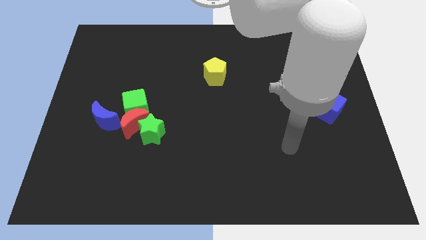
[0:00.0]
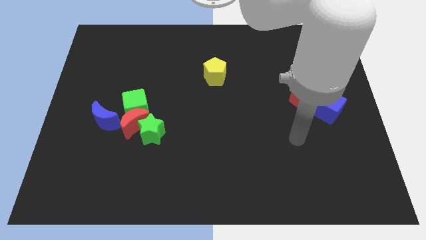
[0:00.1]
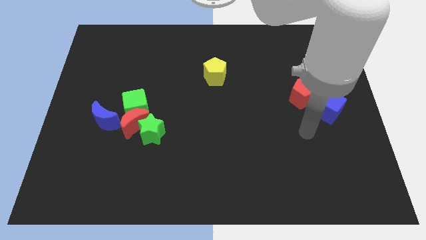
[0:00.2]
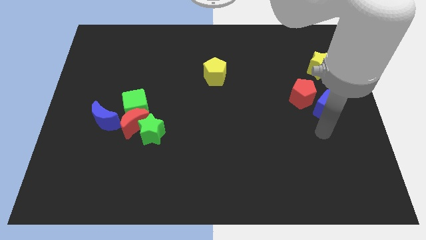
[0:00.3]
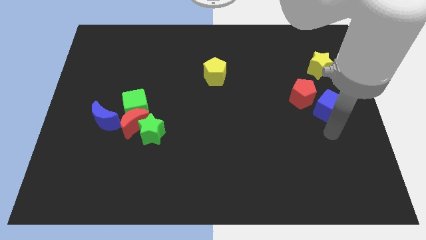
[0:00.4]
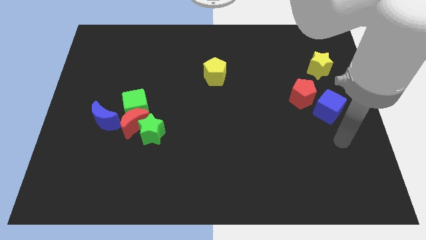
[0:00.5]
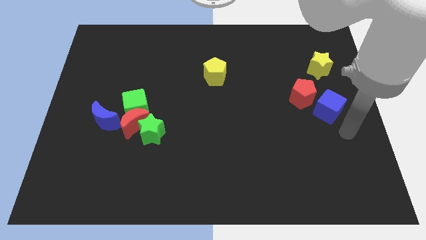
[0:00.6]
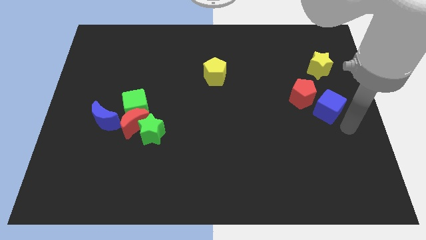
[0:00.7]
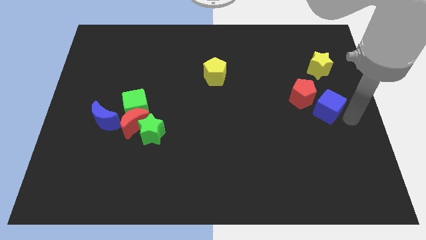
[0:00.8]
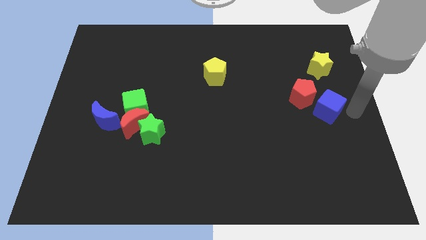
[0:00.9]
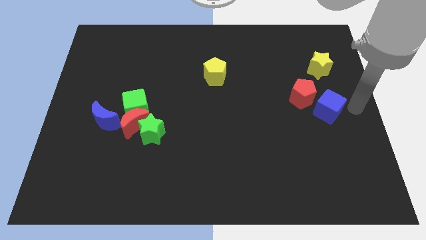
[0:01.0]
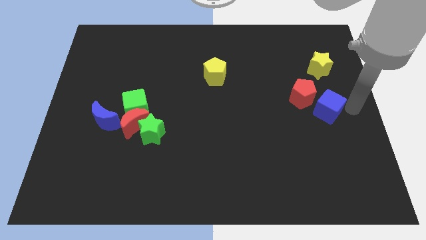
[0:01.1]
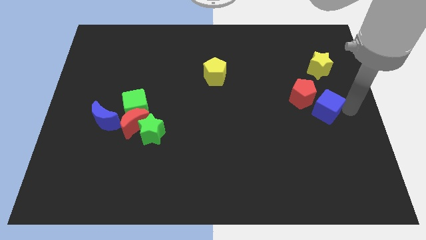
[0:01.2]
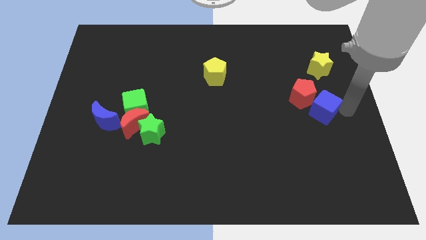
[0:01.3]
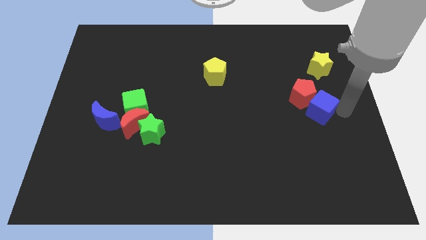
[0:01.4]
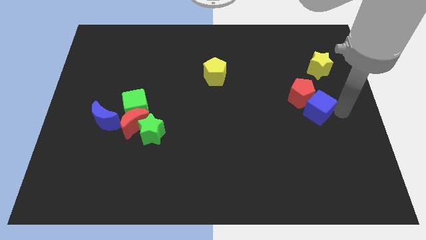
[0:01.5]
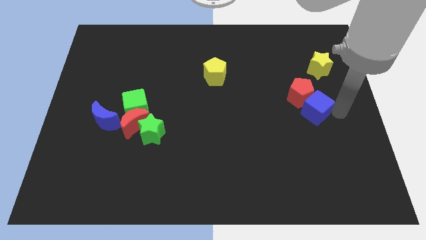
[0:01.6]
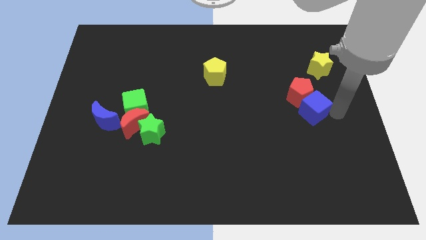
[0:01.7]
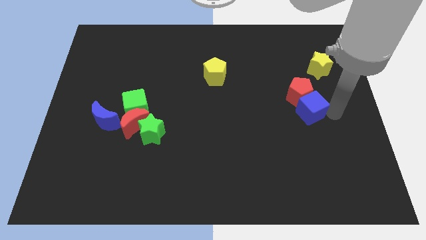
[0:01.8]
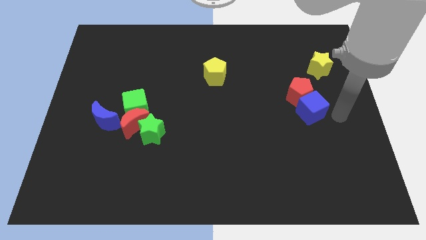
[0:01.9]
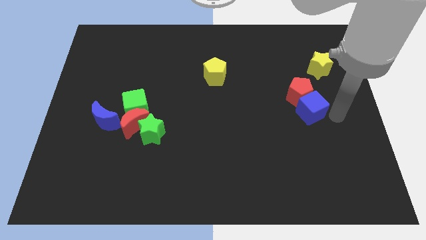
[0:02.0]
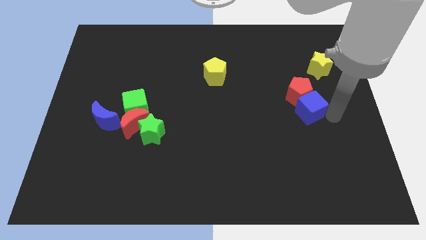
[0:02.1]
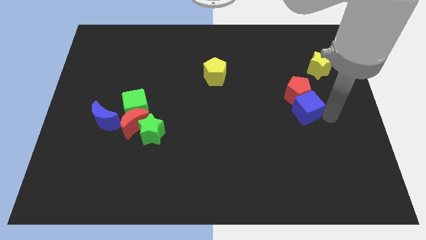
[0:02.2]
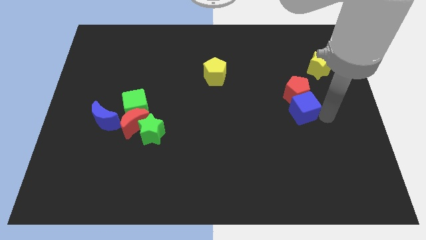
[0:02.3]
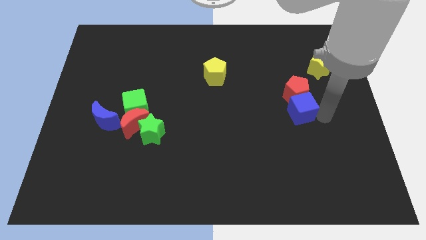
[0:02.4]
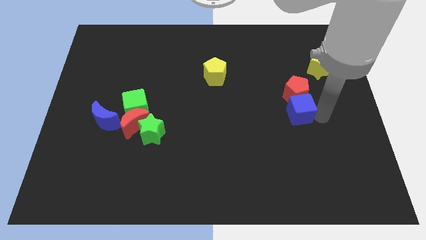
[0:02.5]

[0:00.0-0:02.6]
slide the blue cube slightly left

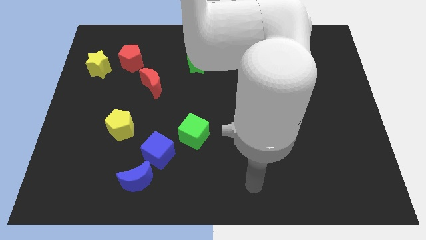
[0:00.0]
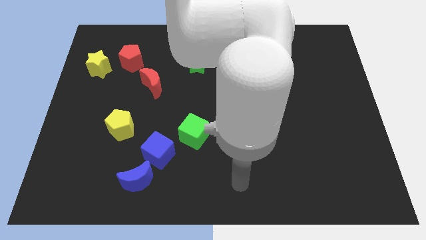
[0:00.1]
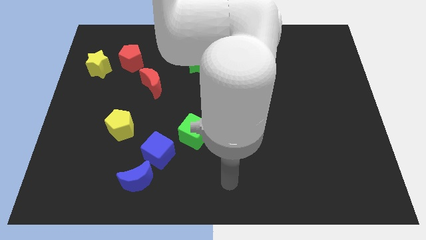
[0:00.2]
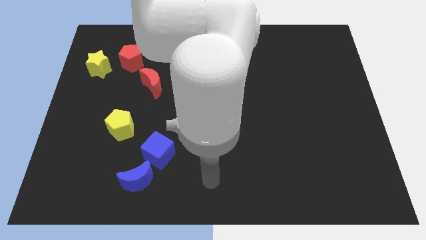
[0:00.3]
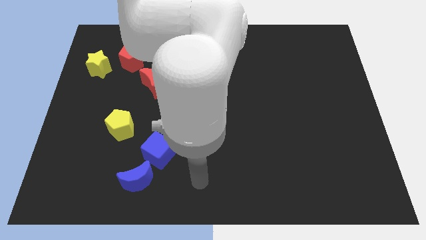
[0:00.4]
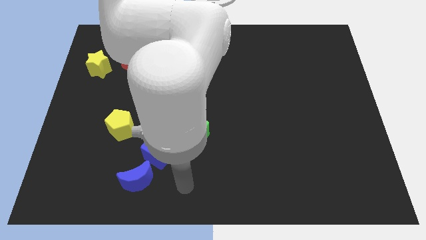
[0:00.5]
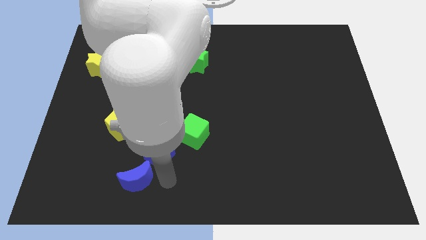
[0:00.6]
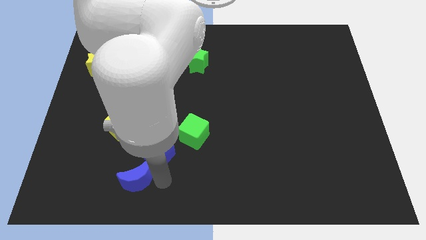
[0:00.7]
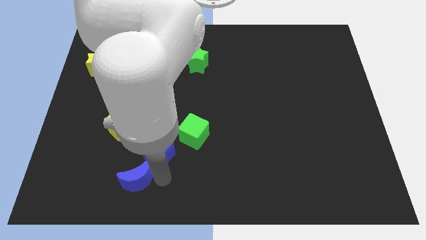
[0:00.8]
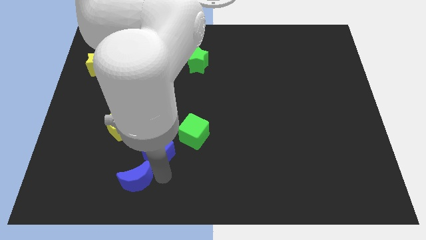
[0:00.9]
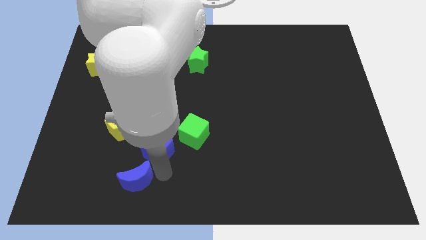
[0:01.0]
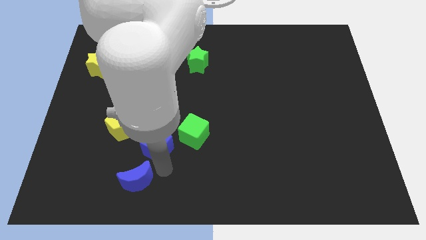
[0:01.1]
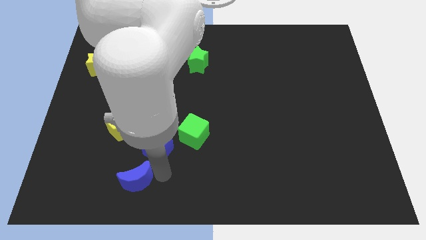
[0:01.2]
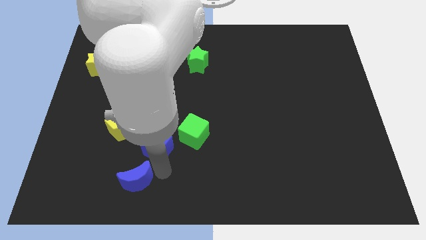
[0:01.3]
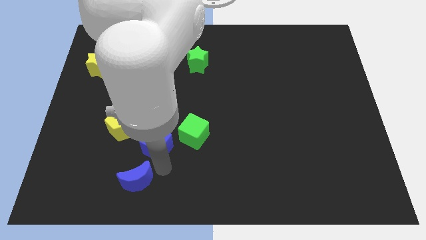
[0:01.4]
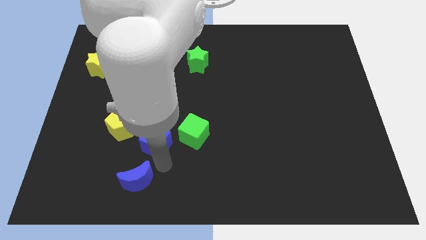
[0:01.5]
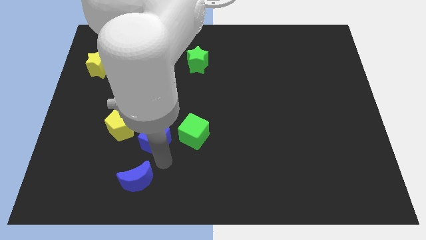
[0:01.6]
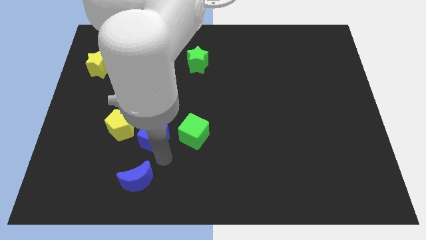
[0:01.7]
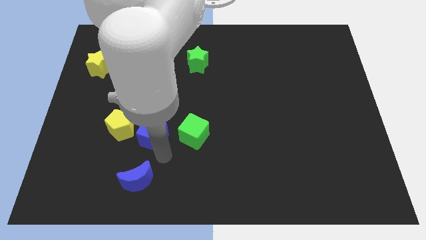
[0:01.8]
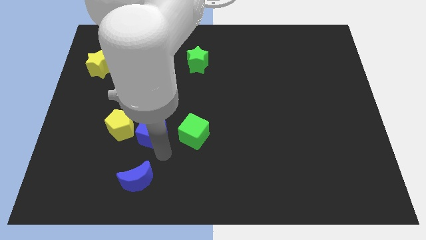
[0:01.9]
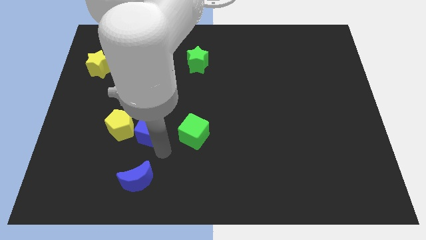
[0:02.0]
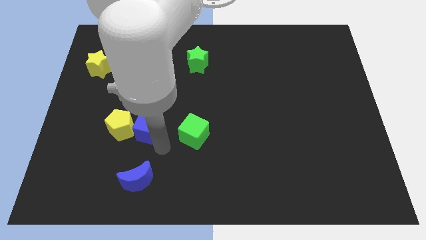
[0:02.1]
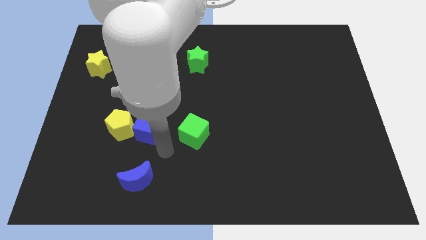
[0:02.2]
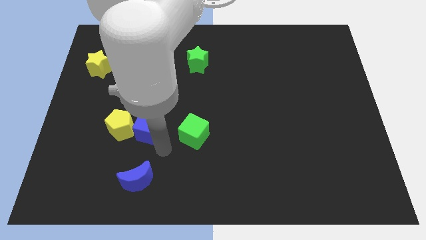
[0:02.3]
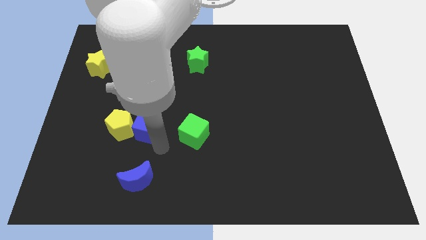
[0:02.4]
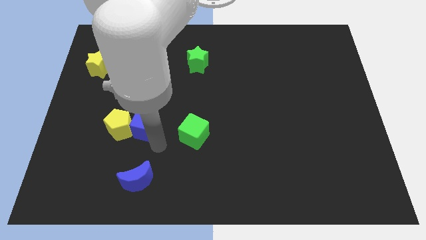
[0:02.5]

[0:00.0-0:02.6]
move the blue cube a bit up and to the left diagonally

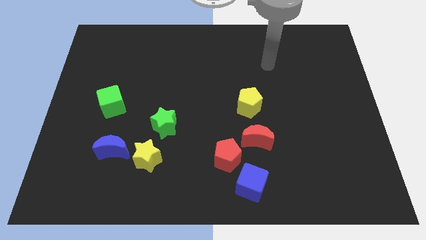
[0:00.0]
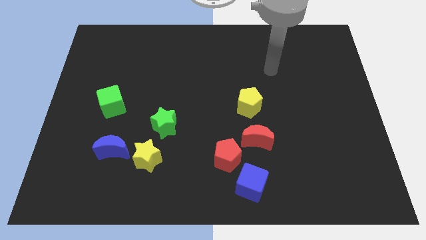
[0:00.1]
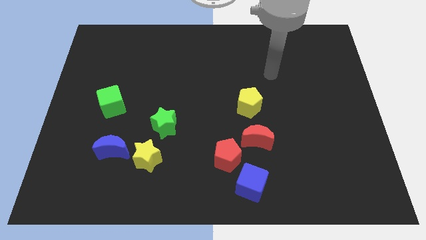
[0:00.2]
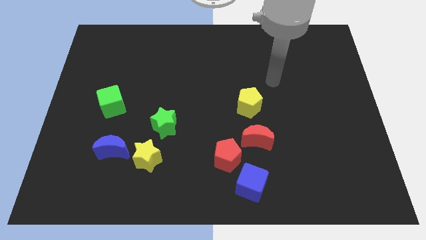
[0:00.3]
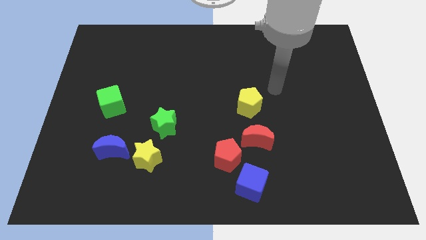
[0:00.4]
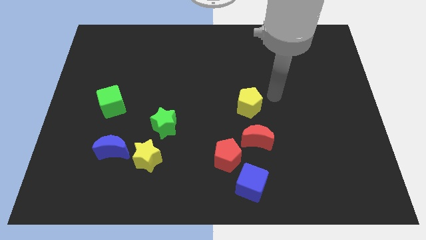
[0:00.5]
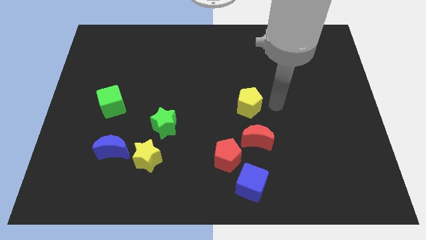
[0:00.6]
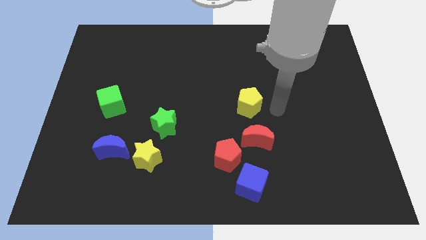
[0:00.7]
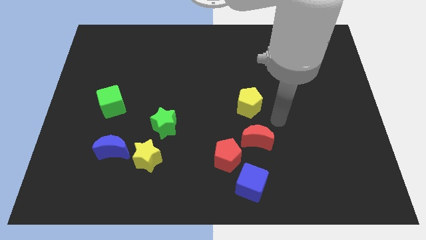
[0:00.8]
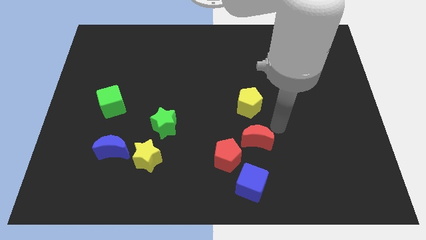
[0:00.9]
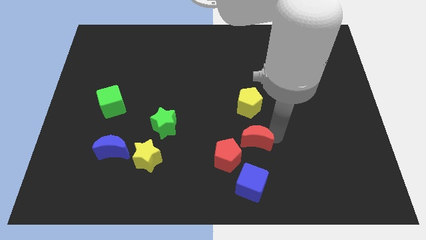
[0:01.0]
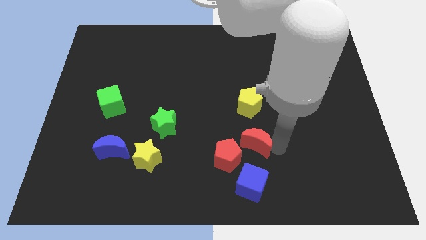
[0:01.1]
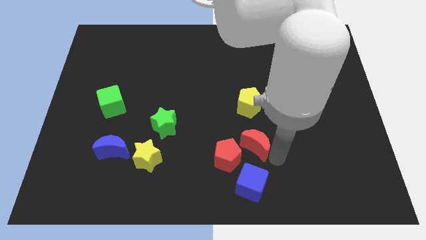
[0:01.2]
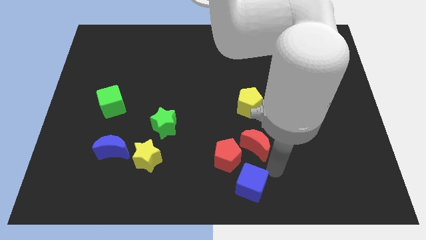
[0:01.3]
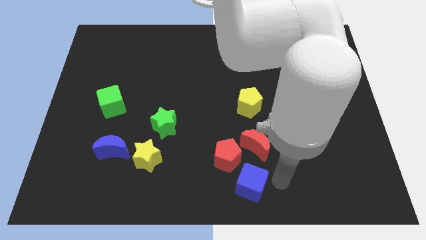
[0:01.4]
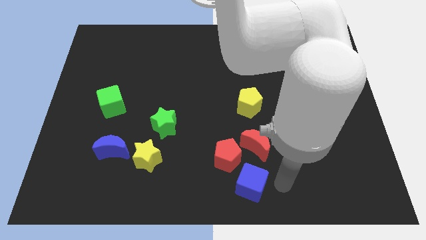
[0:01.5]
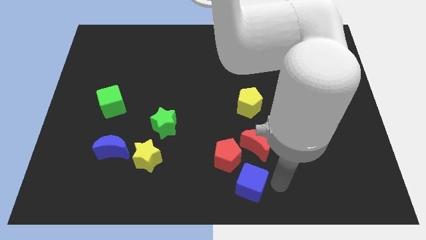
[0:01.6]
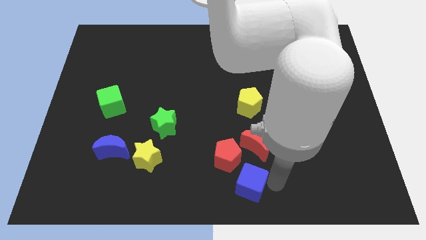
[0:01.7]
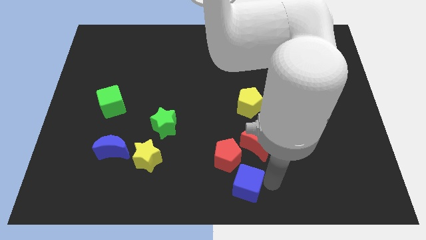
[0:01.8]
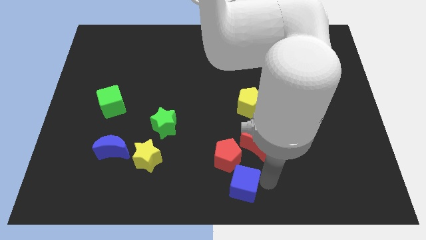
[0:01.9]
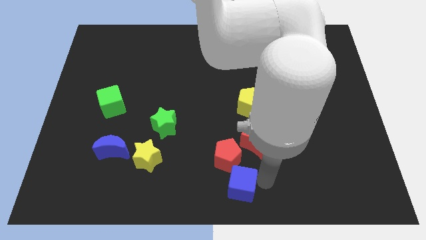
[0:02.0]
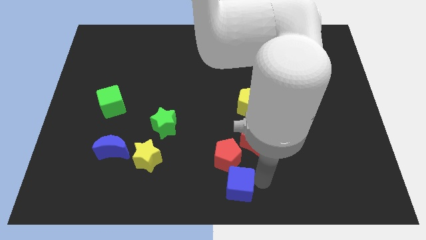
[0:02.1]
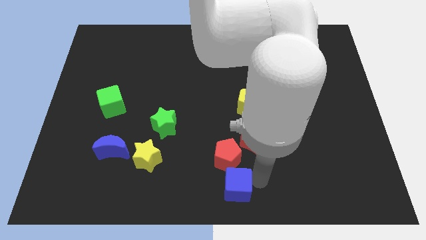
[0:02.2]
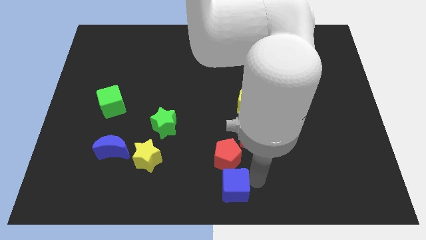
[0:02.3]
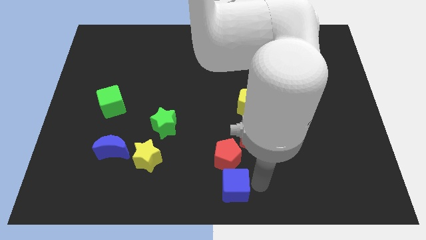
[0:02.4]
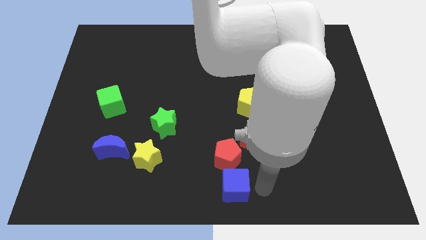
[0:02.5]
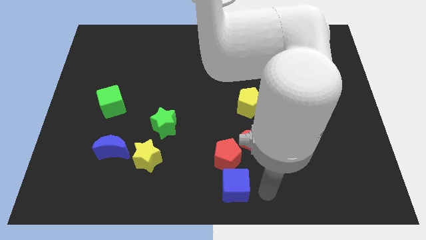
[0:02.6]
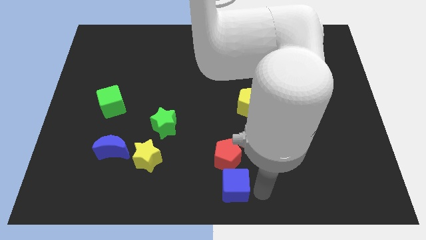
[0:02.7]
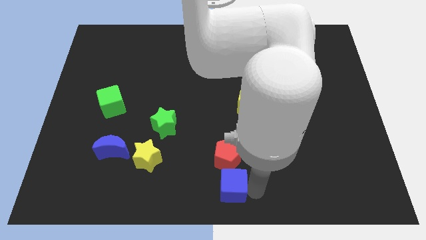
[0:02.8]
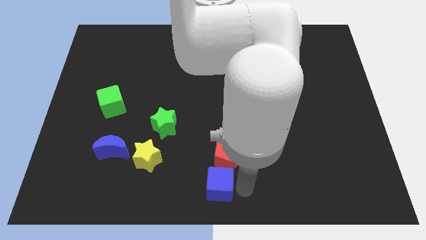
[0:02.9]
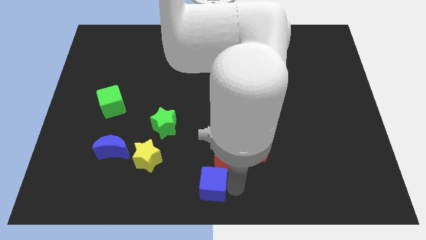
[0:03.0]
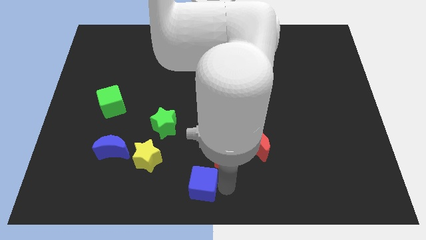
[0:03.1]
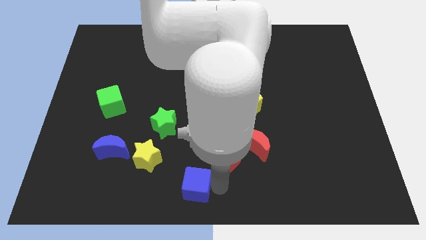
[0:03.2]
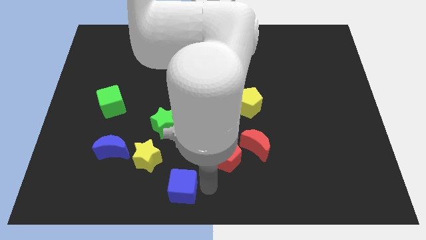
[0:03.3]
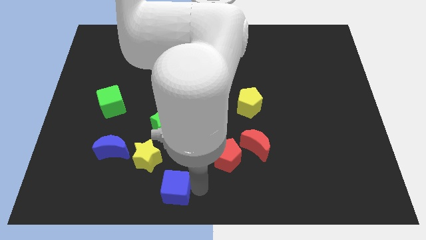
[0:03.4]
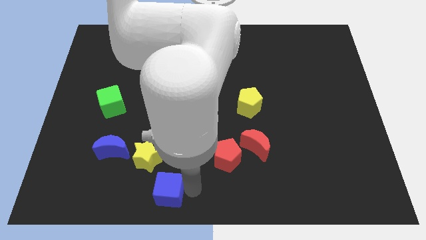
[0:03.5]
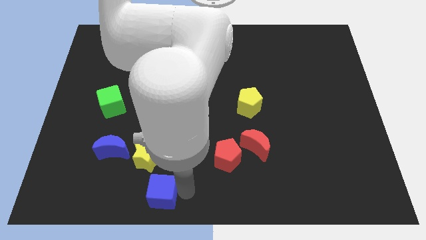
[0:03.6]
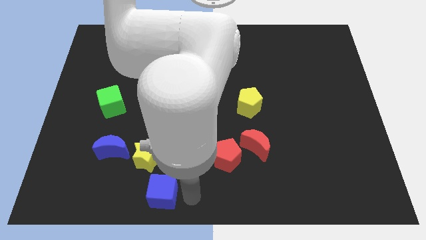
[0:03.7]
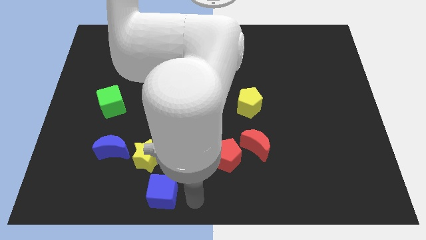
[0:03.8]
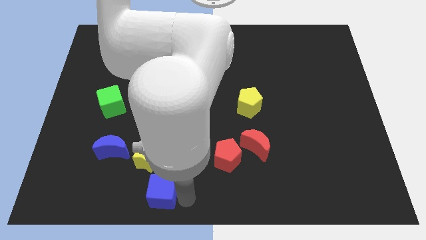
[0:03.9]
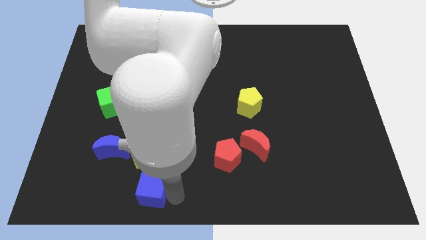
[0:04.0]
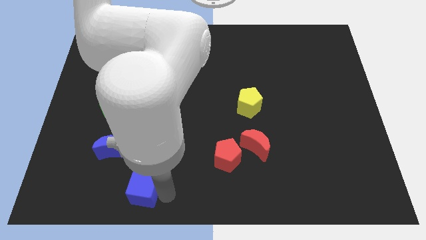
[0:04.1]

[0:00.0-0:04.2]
slide the blue cube to the left
